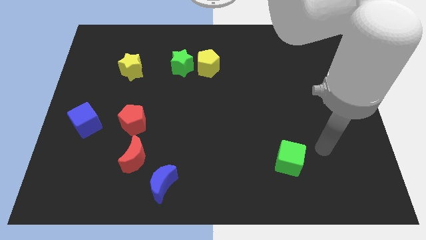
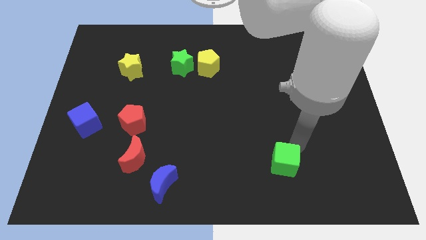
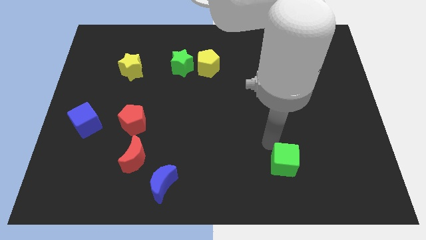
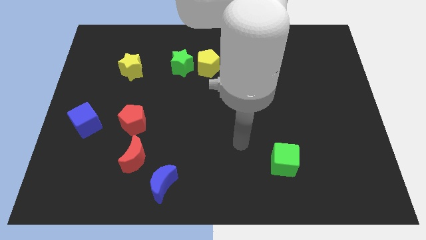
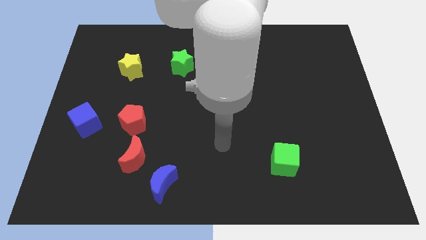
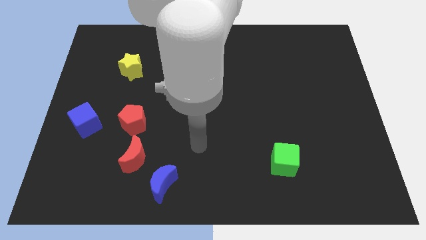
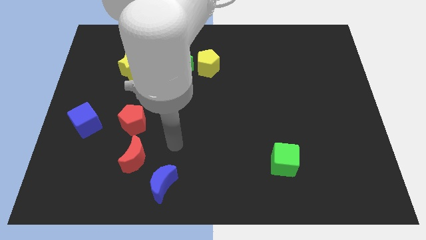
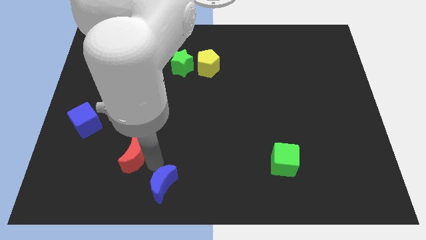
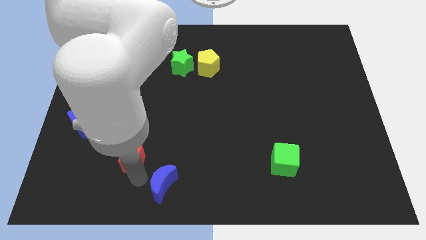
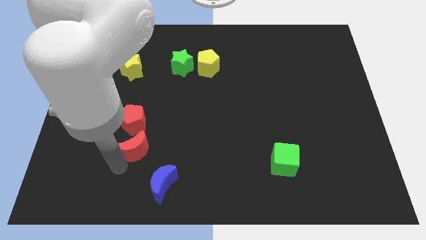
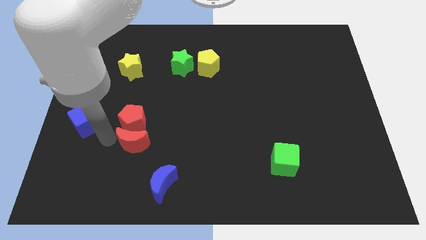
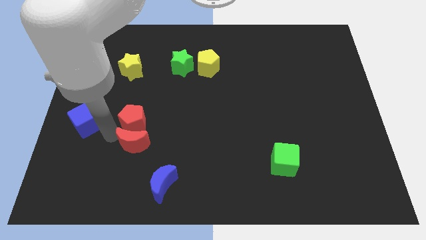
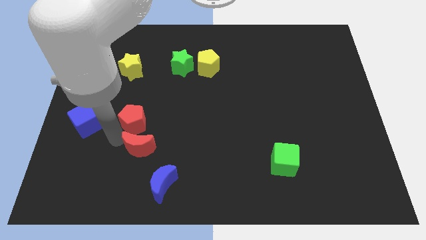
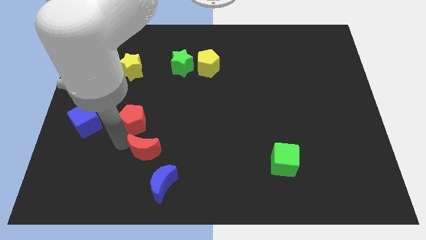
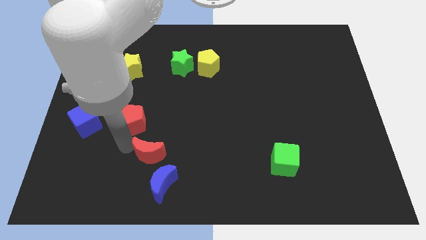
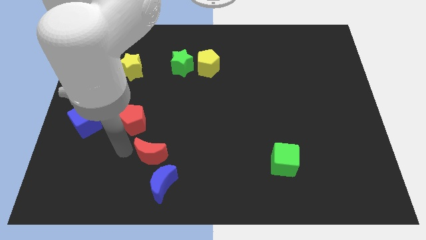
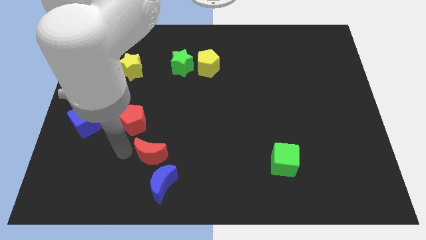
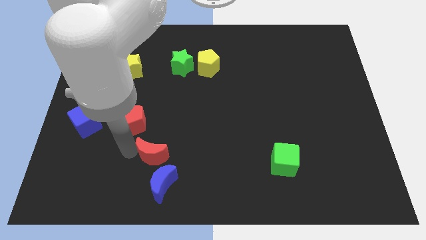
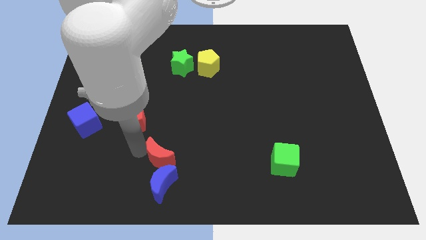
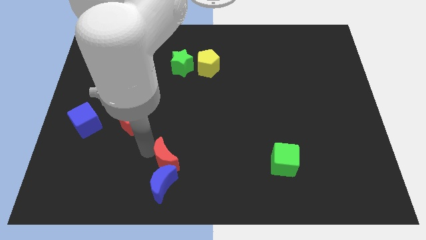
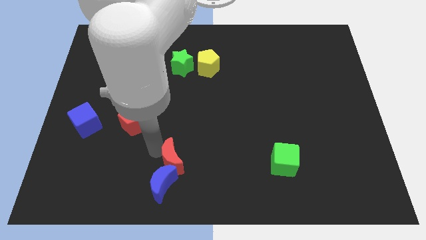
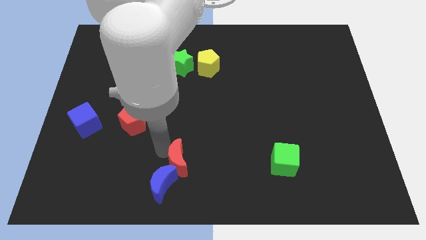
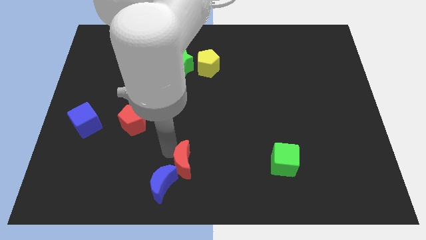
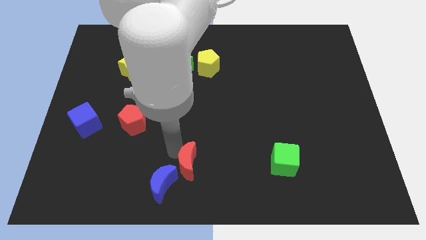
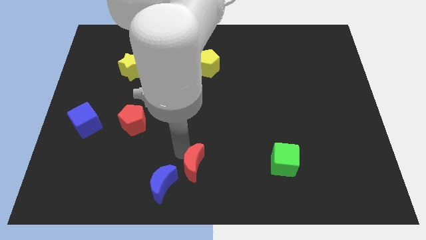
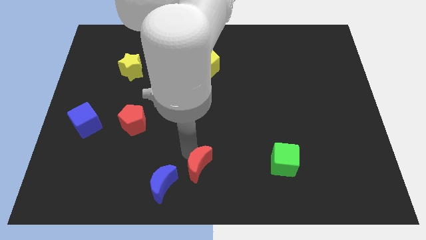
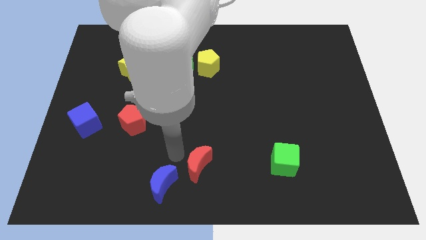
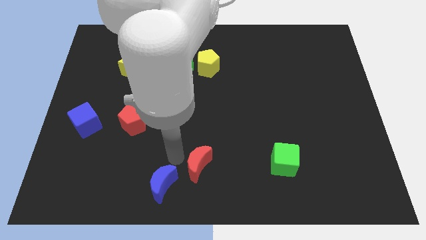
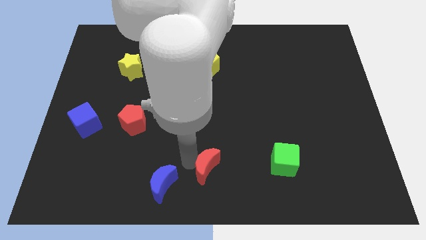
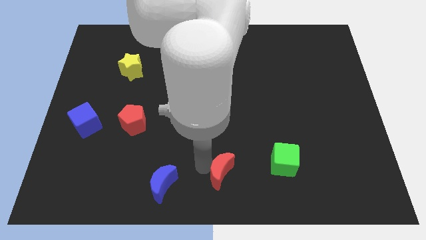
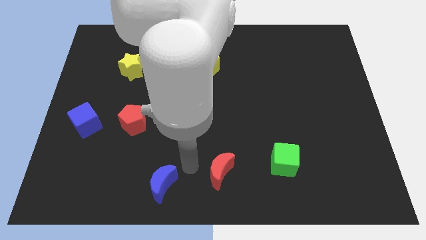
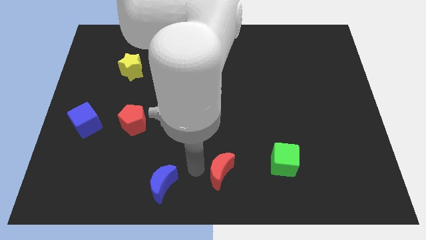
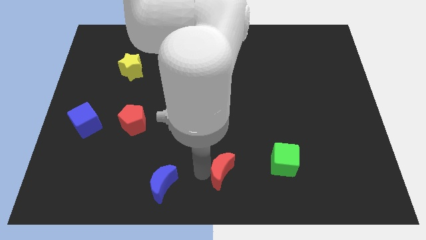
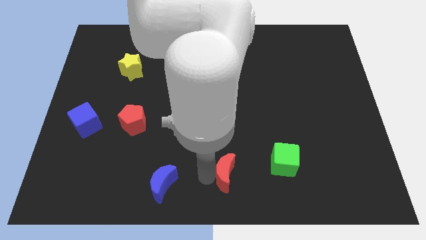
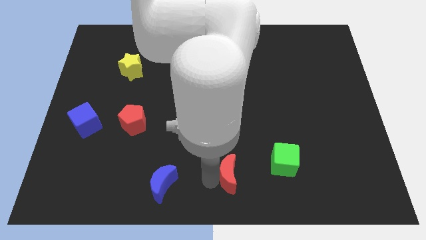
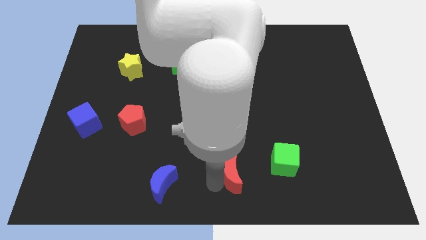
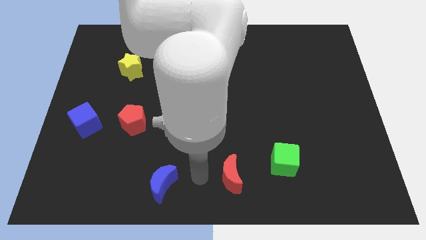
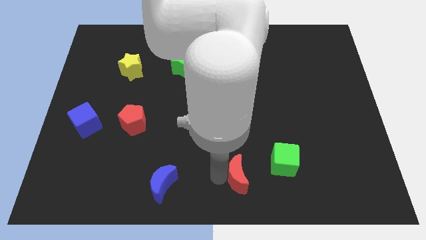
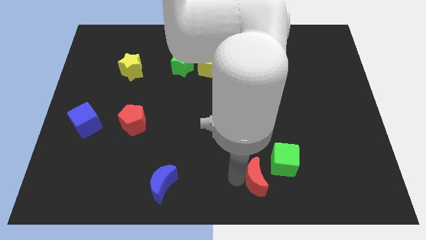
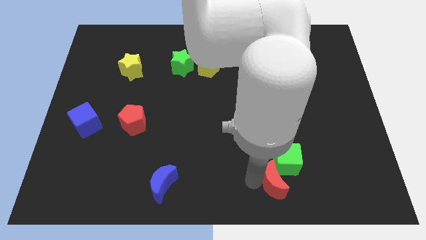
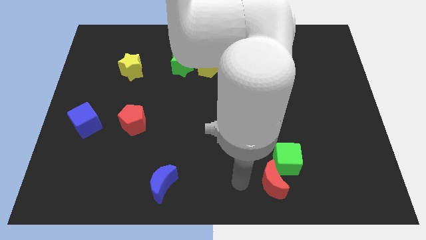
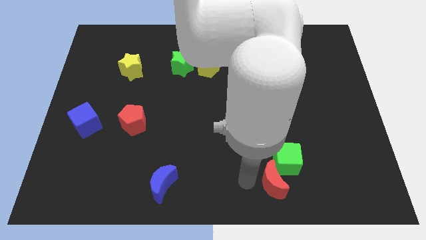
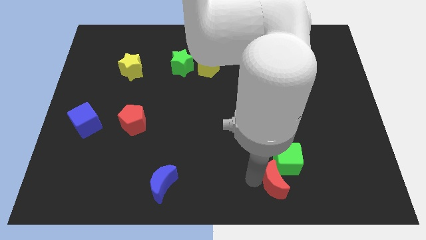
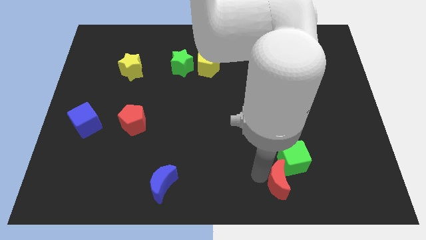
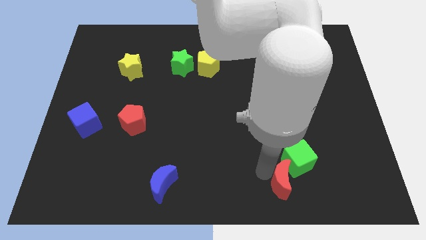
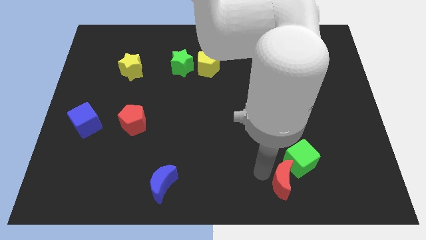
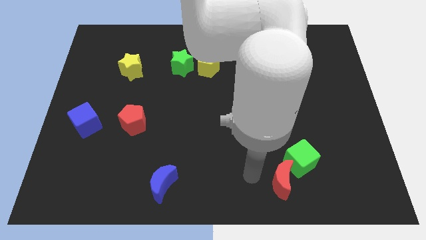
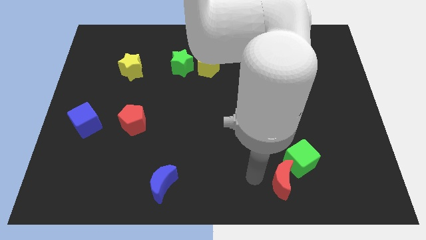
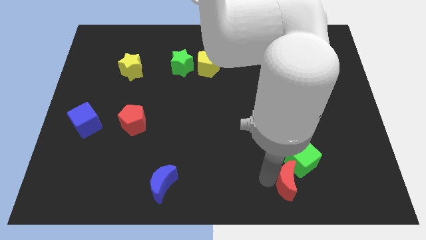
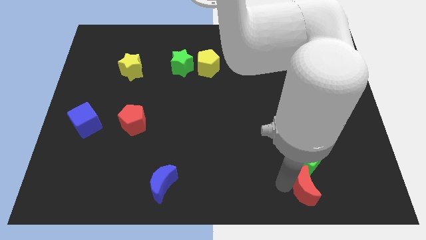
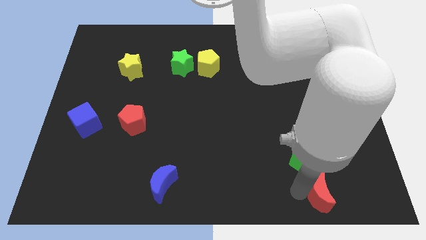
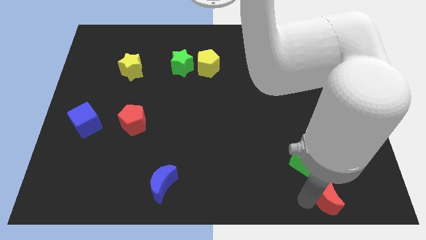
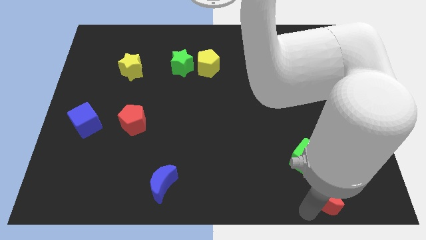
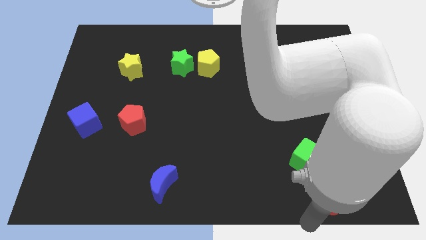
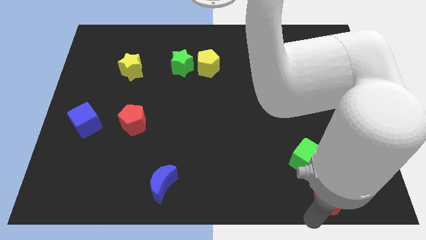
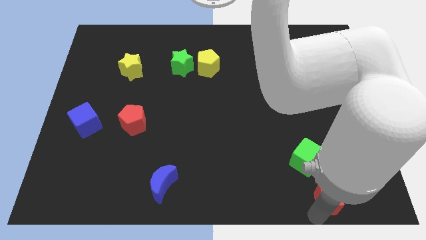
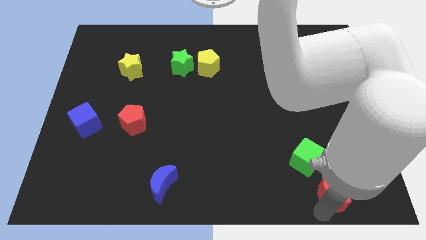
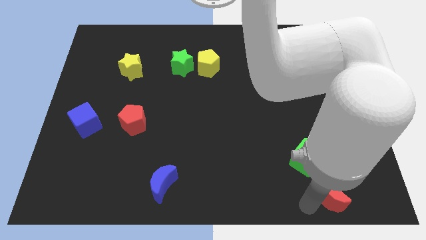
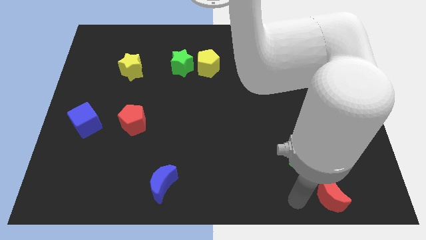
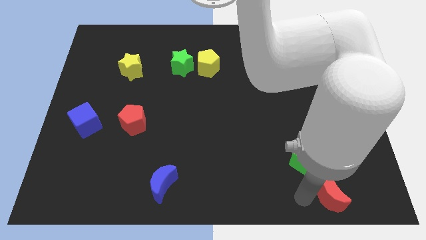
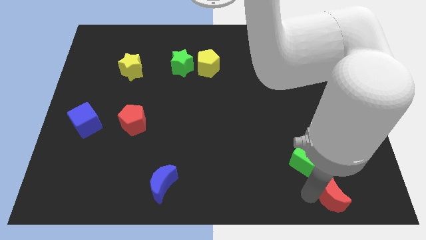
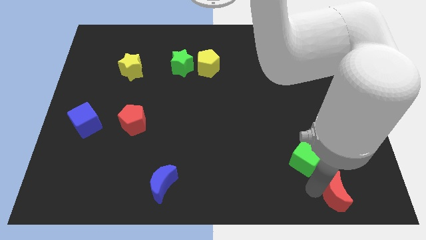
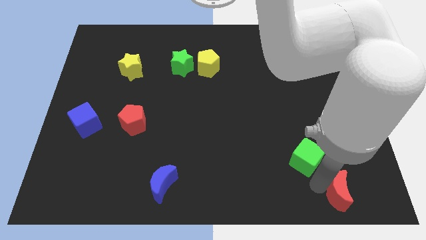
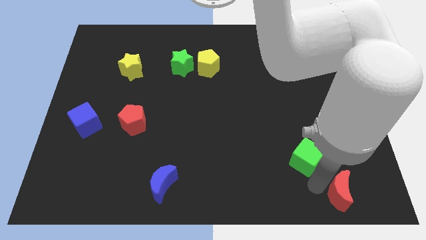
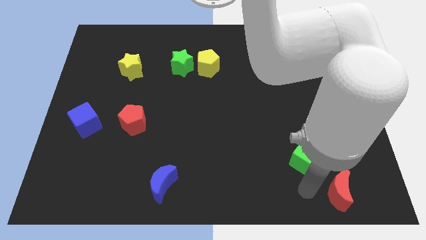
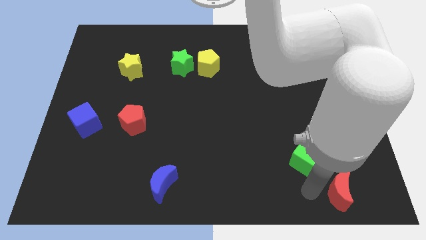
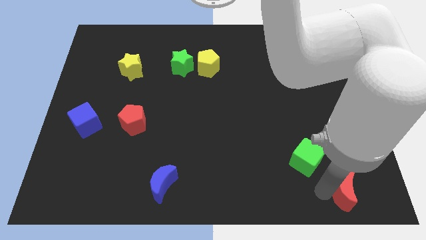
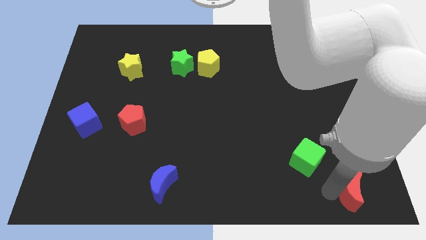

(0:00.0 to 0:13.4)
push the red moon to the bottom right
